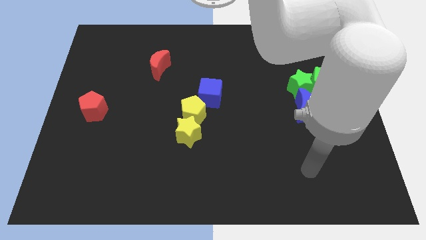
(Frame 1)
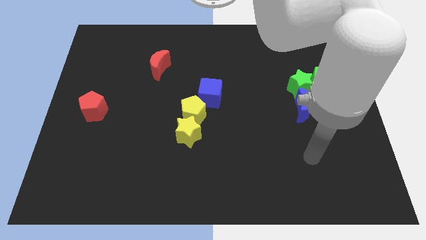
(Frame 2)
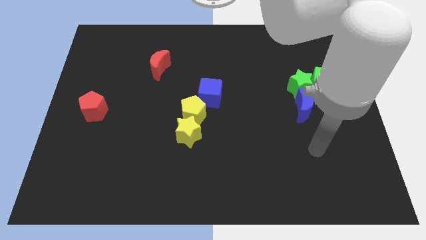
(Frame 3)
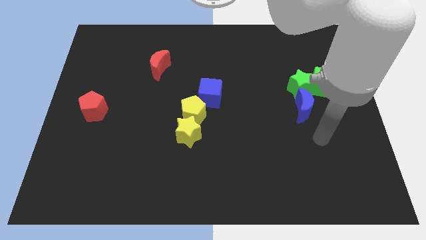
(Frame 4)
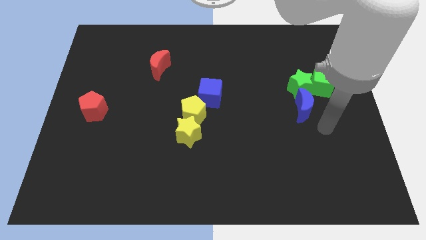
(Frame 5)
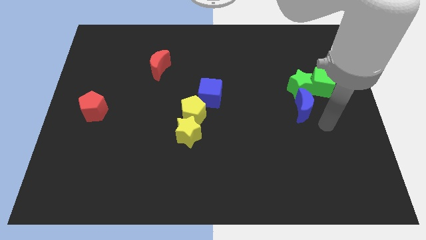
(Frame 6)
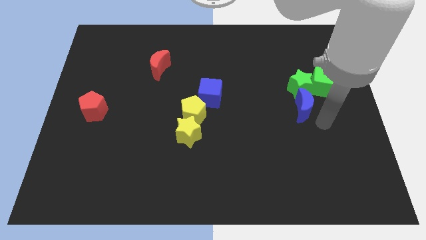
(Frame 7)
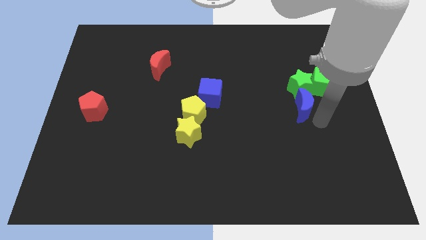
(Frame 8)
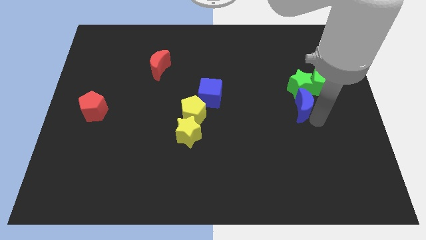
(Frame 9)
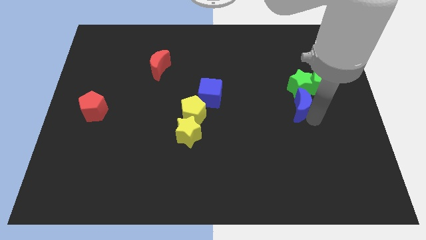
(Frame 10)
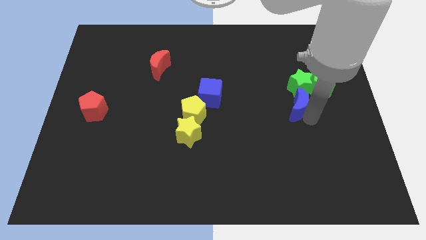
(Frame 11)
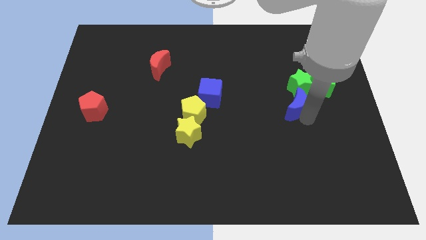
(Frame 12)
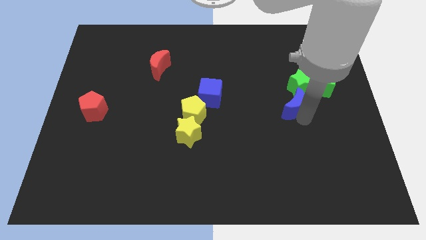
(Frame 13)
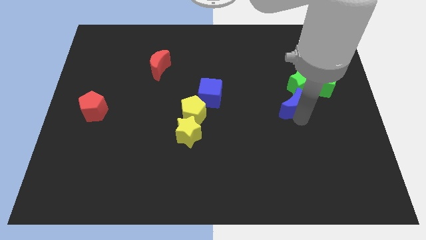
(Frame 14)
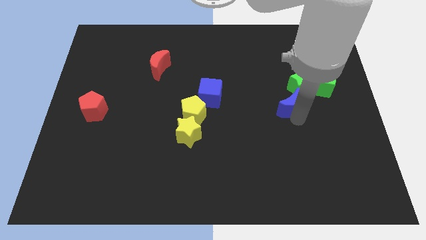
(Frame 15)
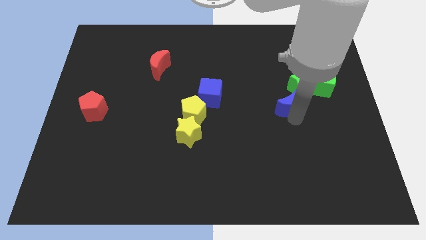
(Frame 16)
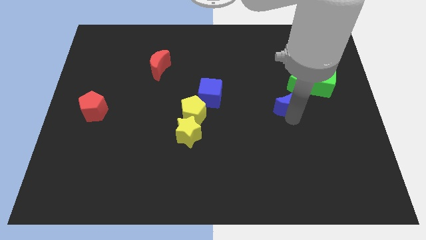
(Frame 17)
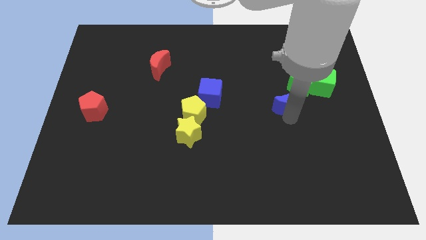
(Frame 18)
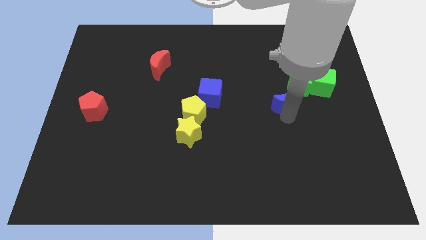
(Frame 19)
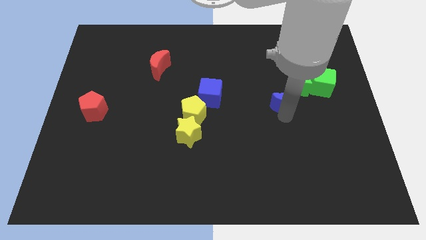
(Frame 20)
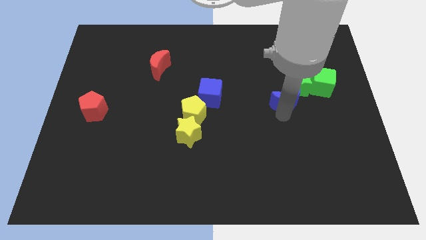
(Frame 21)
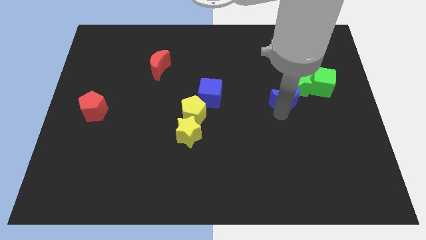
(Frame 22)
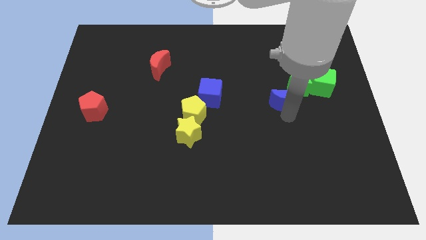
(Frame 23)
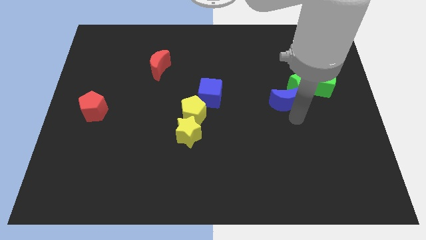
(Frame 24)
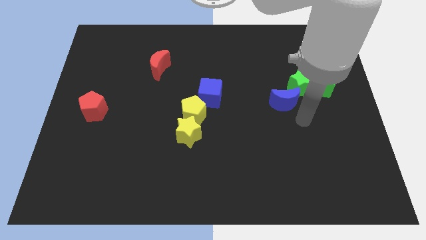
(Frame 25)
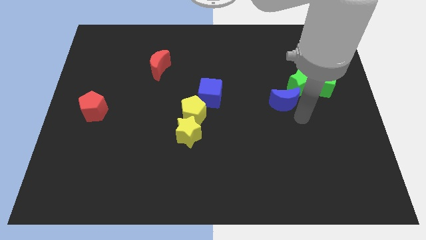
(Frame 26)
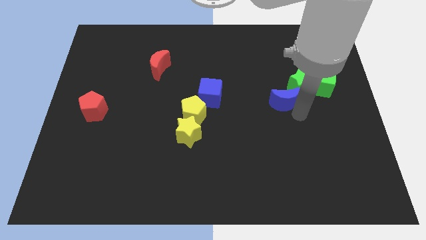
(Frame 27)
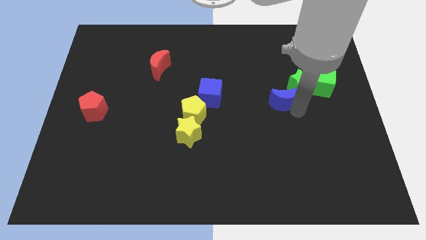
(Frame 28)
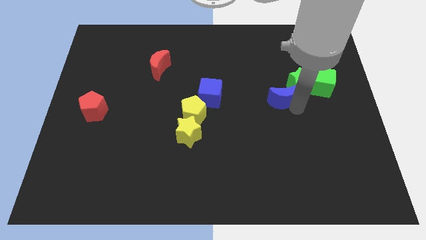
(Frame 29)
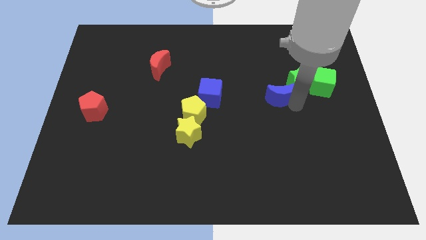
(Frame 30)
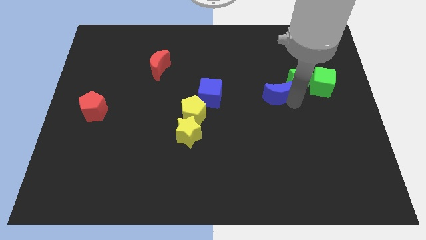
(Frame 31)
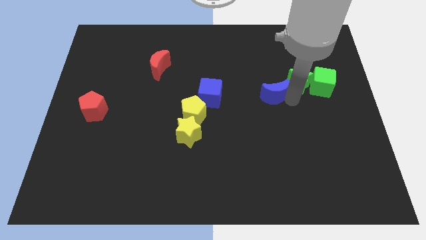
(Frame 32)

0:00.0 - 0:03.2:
push the blue moon somewhat upwards and to the left

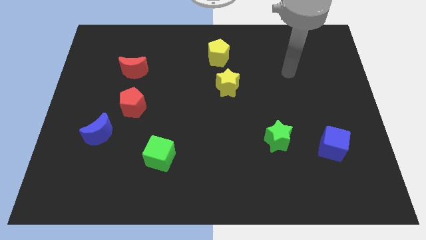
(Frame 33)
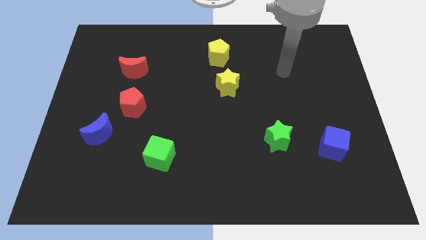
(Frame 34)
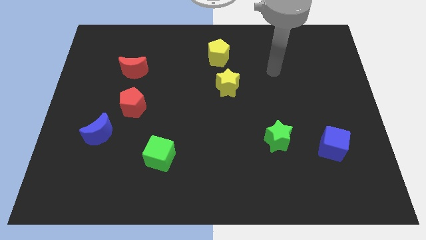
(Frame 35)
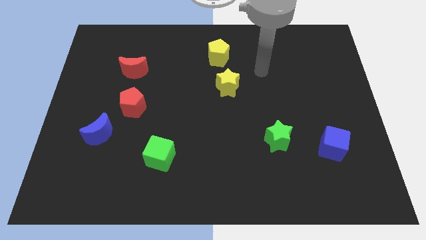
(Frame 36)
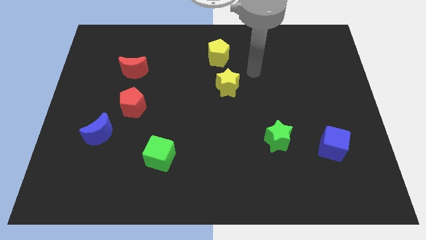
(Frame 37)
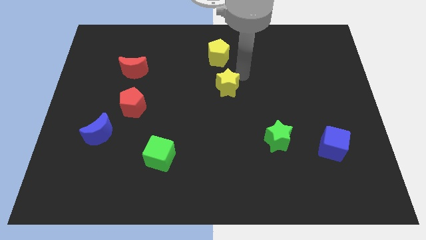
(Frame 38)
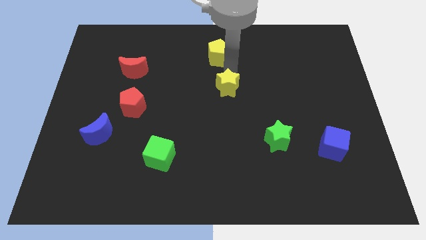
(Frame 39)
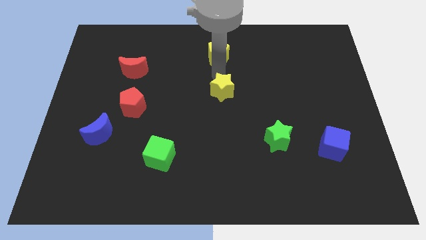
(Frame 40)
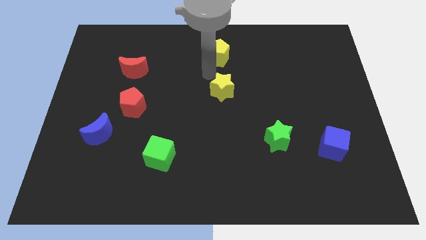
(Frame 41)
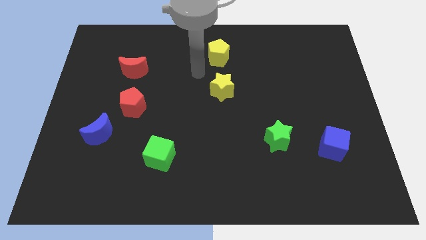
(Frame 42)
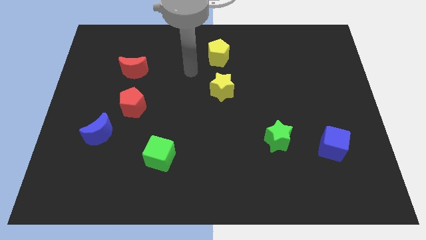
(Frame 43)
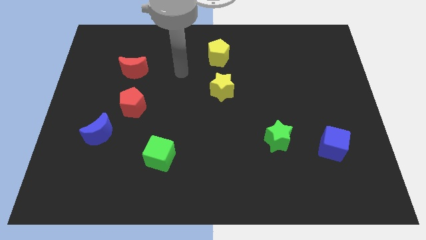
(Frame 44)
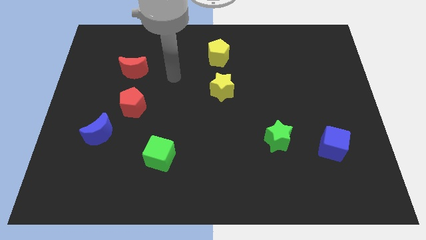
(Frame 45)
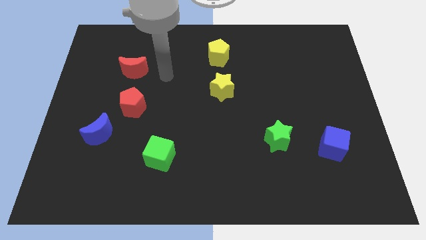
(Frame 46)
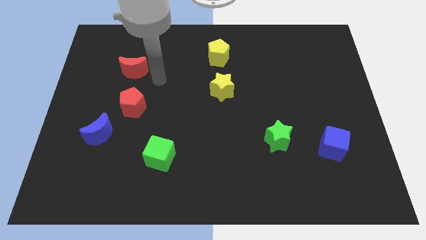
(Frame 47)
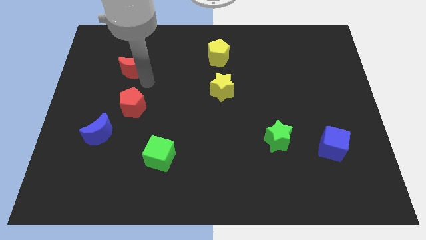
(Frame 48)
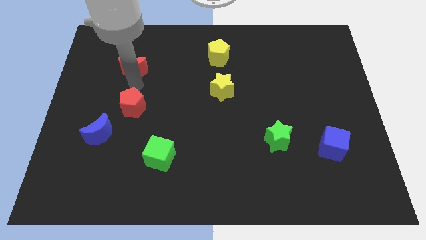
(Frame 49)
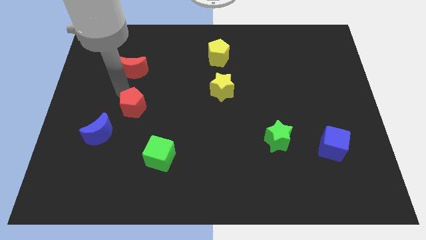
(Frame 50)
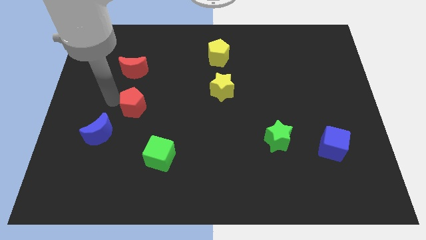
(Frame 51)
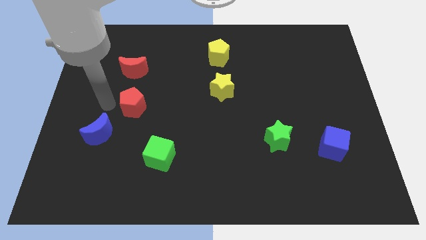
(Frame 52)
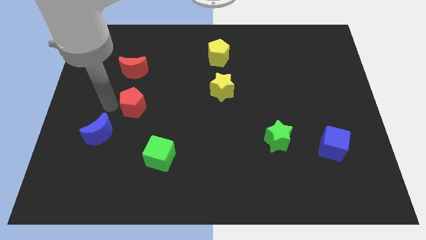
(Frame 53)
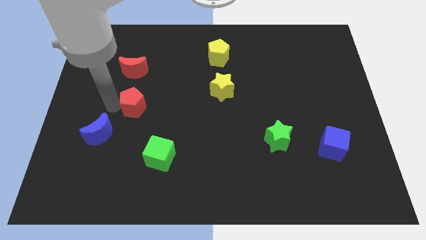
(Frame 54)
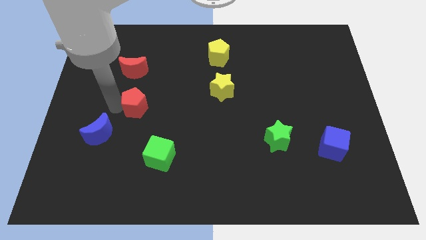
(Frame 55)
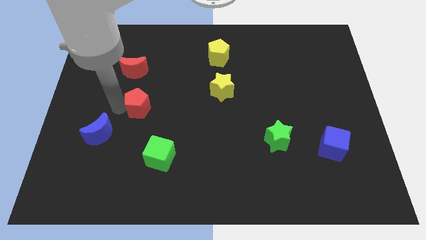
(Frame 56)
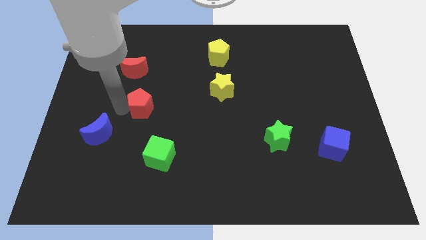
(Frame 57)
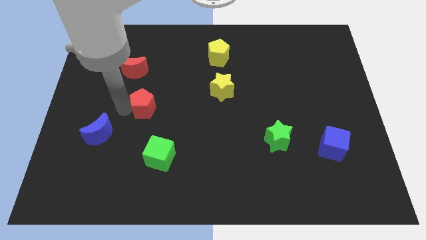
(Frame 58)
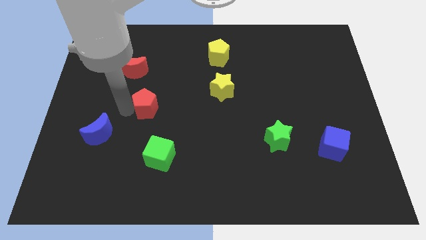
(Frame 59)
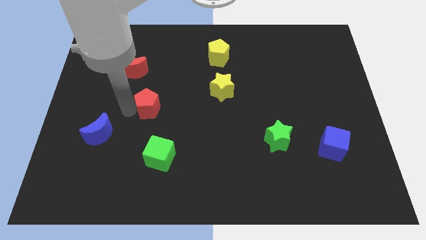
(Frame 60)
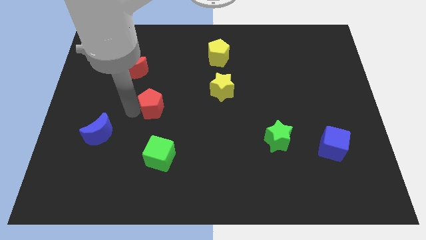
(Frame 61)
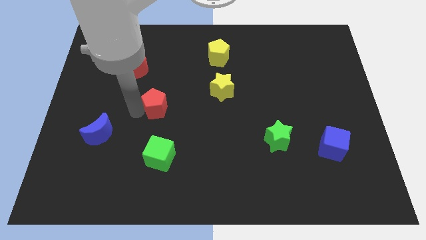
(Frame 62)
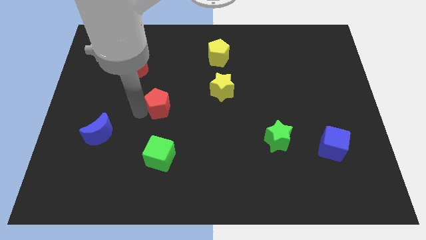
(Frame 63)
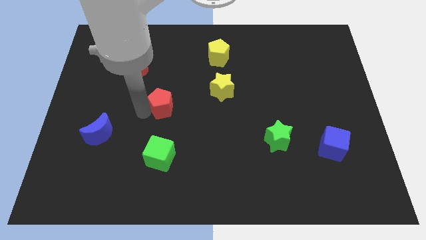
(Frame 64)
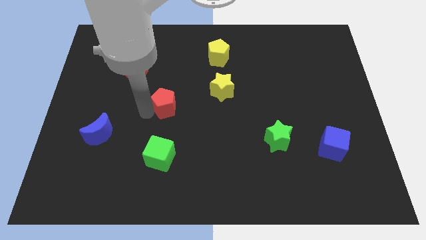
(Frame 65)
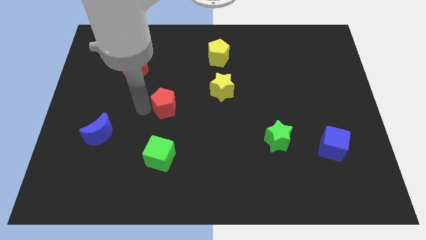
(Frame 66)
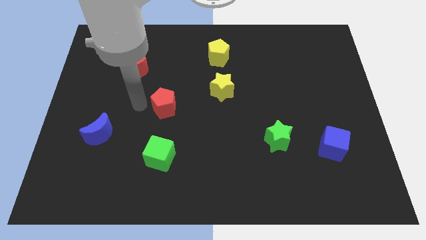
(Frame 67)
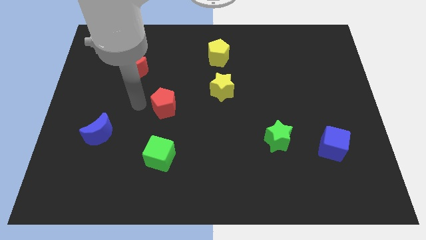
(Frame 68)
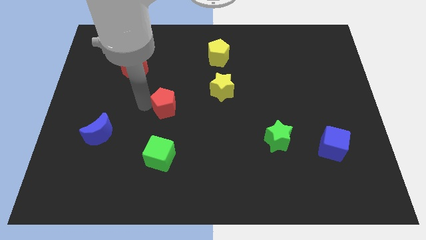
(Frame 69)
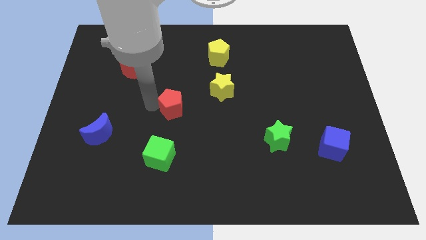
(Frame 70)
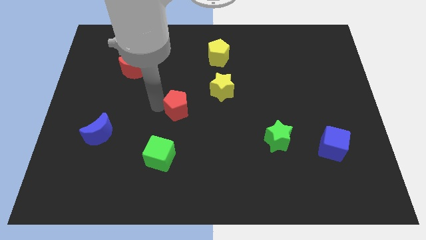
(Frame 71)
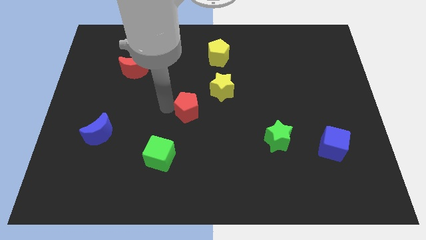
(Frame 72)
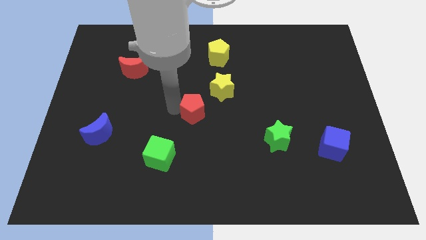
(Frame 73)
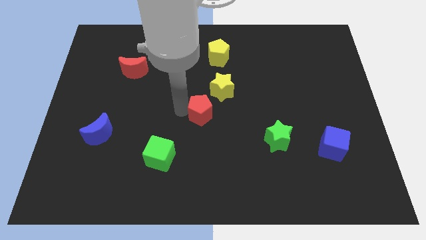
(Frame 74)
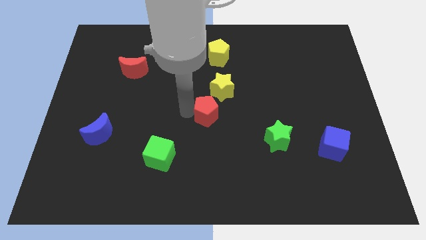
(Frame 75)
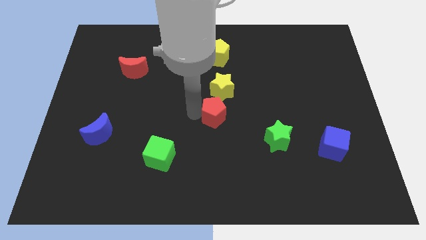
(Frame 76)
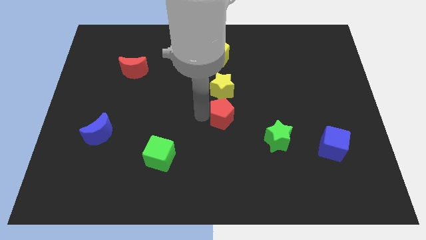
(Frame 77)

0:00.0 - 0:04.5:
slide the red pentagon right

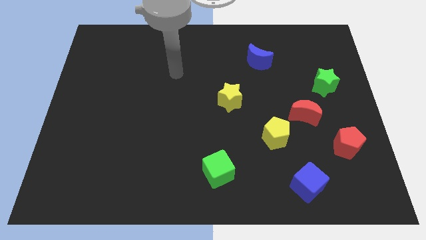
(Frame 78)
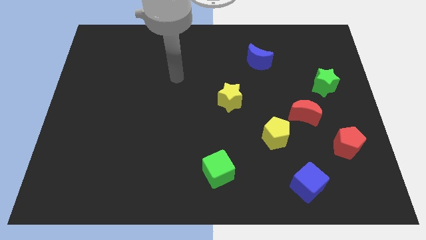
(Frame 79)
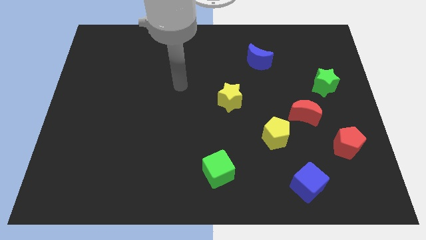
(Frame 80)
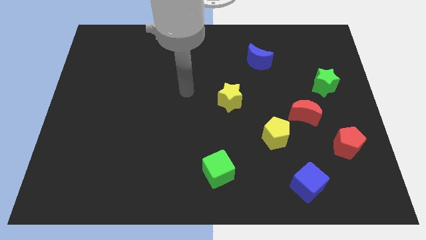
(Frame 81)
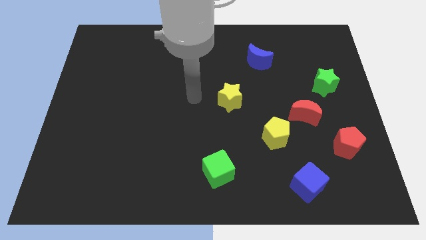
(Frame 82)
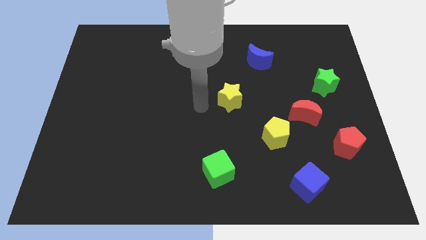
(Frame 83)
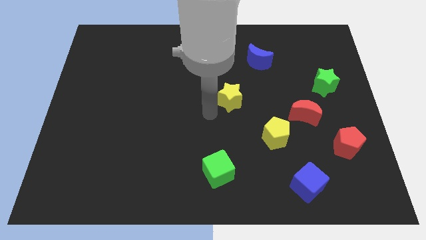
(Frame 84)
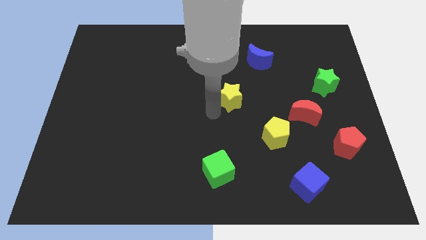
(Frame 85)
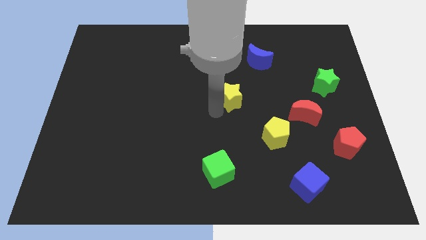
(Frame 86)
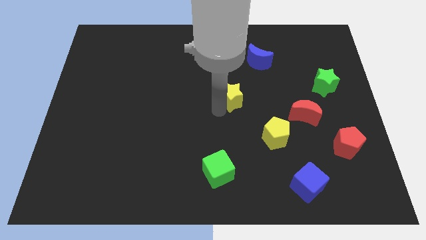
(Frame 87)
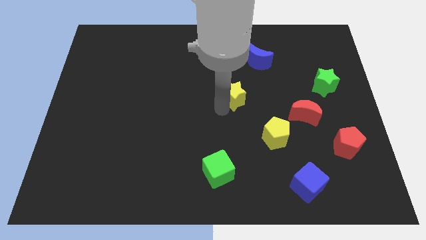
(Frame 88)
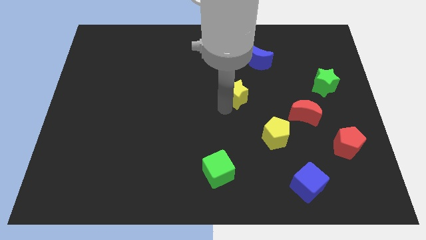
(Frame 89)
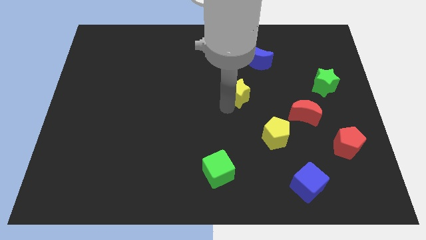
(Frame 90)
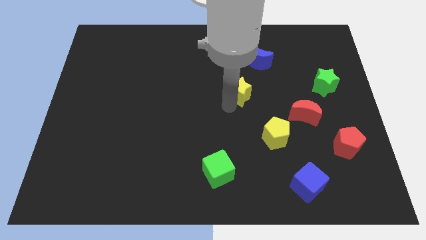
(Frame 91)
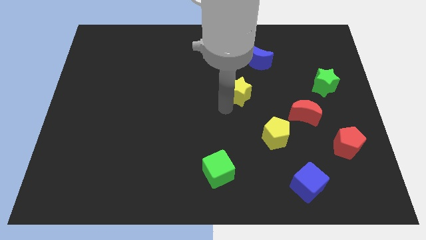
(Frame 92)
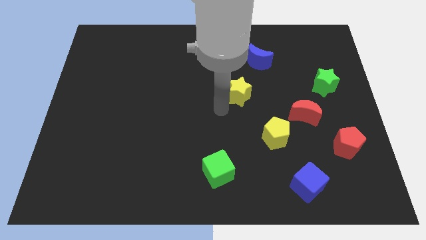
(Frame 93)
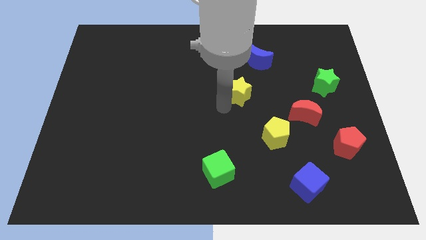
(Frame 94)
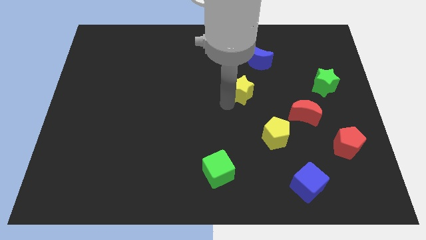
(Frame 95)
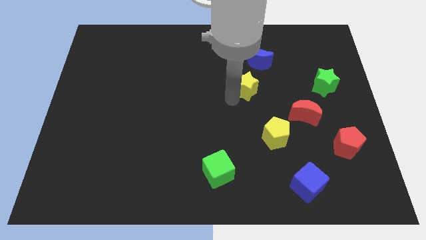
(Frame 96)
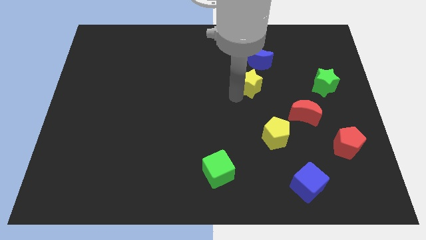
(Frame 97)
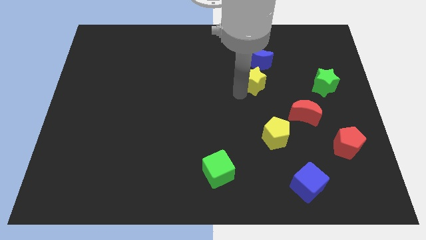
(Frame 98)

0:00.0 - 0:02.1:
slide the yellow star up and then right a little bit
